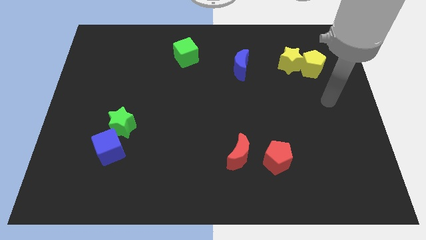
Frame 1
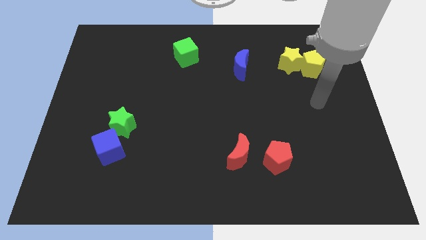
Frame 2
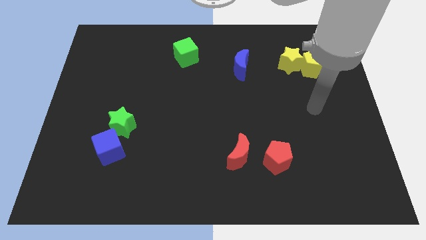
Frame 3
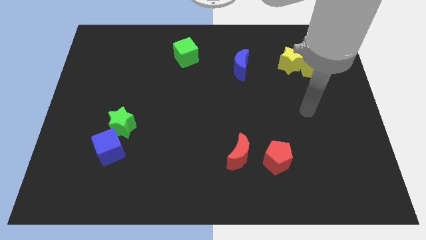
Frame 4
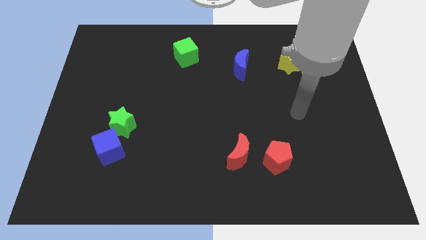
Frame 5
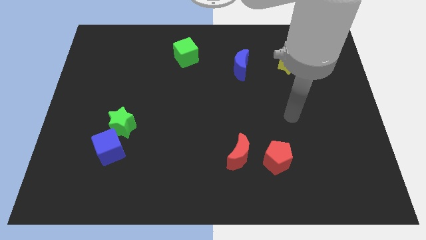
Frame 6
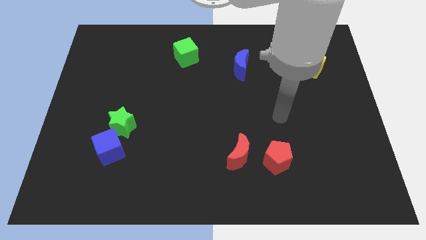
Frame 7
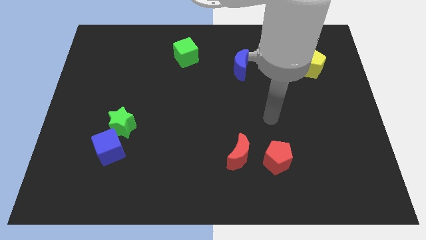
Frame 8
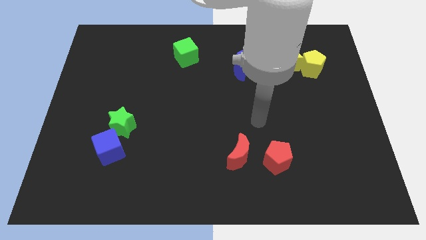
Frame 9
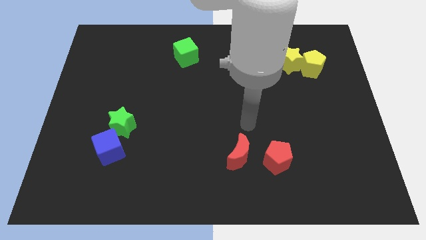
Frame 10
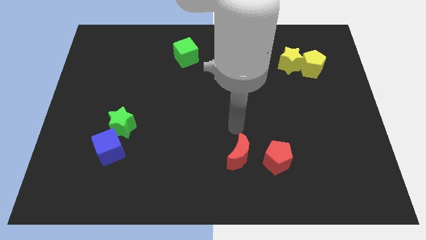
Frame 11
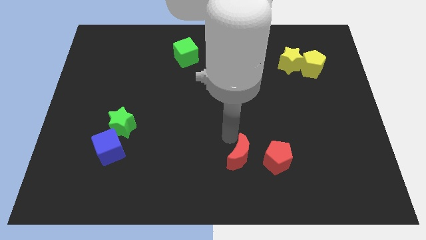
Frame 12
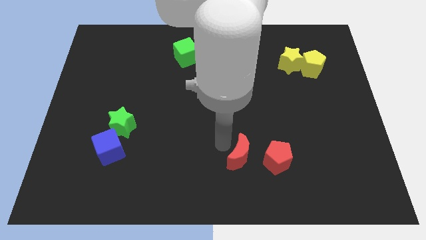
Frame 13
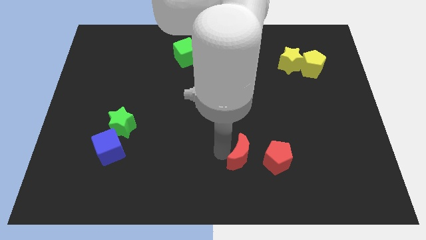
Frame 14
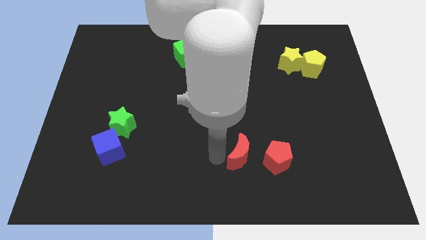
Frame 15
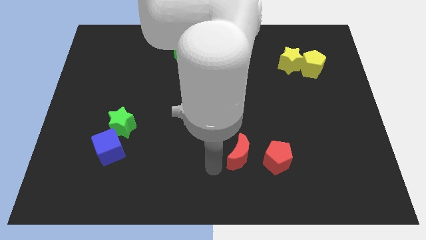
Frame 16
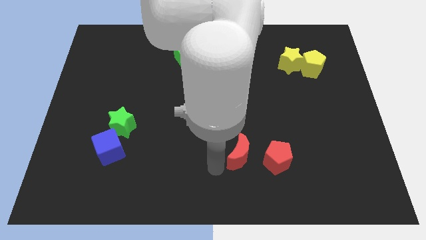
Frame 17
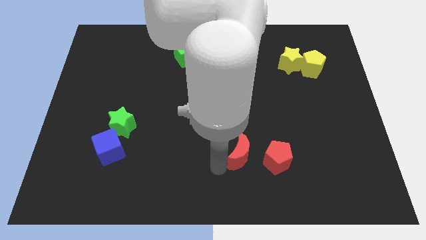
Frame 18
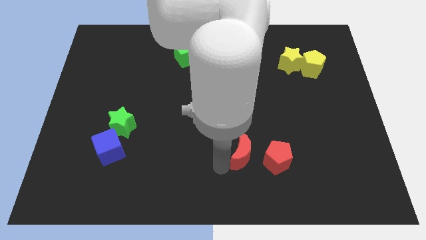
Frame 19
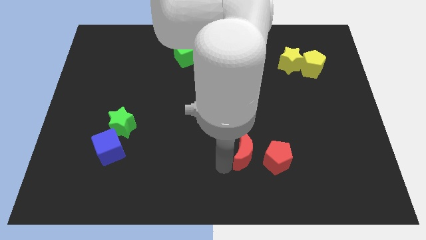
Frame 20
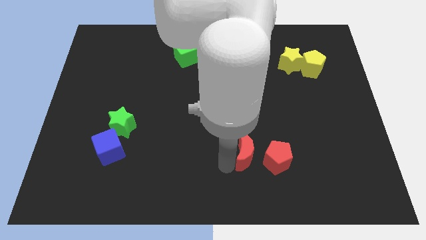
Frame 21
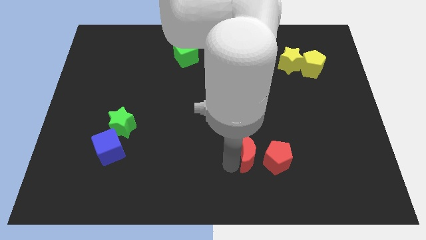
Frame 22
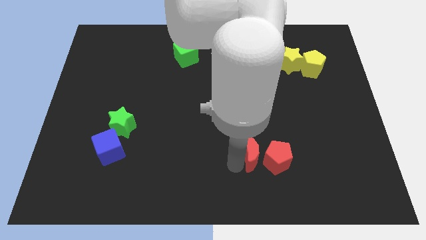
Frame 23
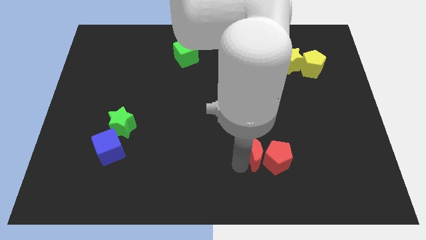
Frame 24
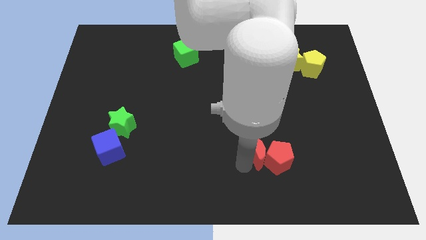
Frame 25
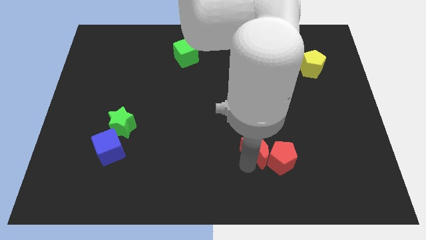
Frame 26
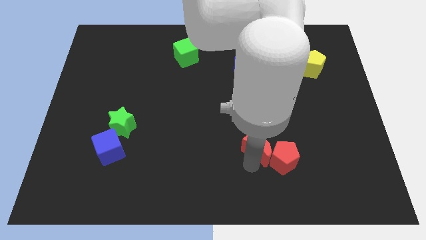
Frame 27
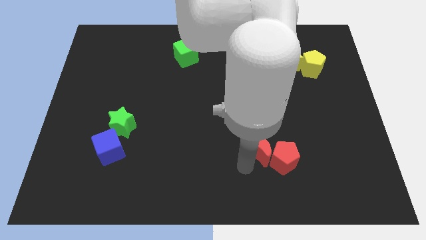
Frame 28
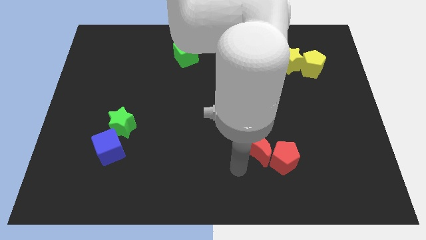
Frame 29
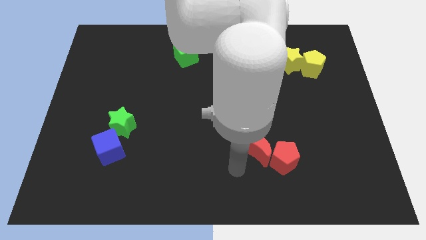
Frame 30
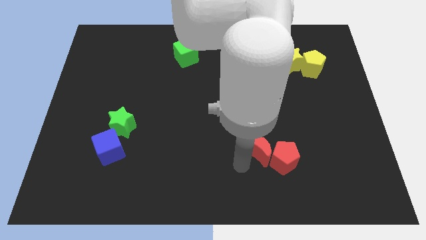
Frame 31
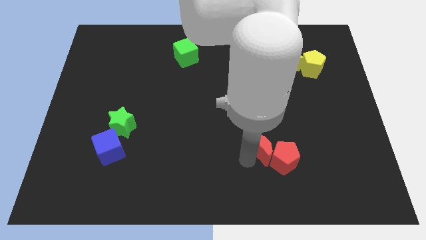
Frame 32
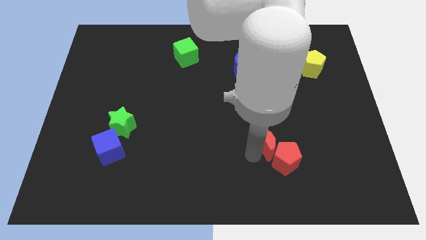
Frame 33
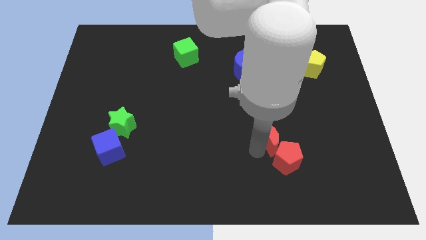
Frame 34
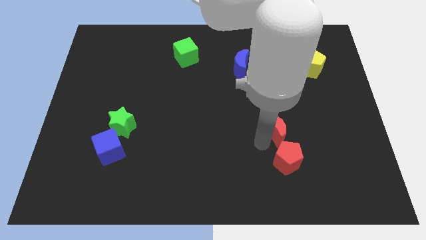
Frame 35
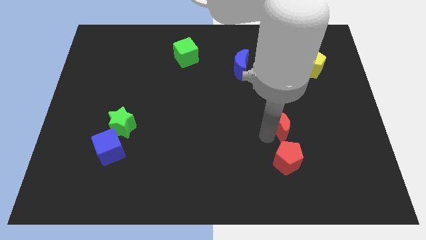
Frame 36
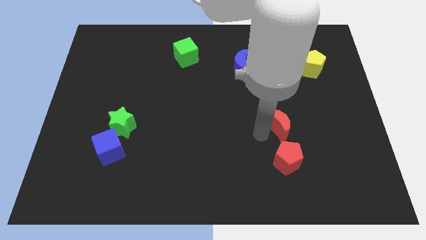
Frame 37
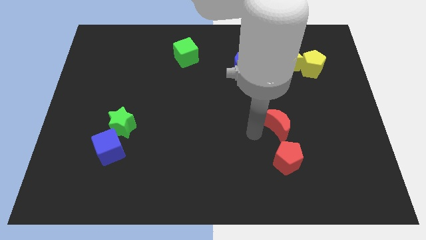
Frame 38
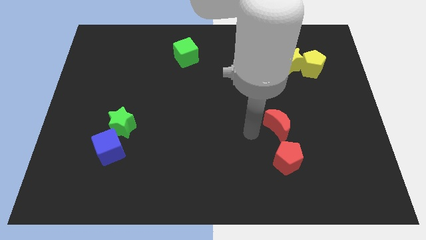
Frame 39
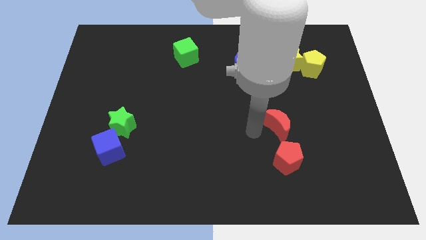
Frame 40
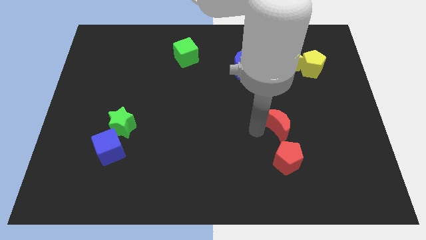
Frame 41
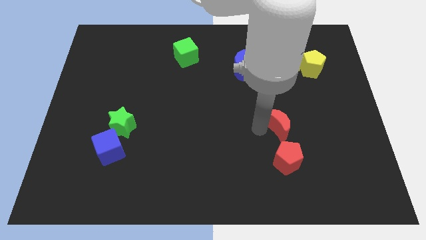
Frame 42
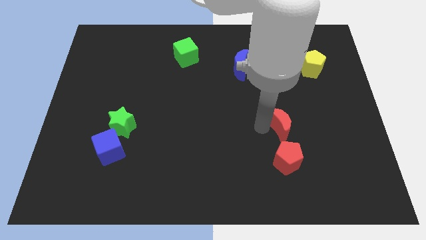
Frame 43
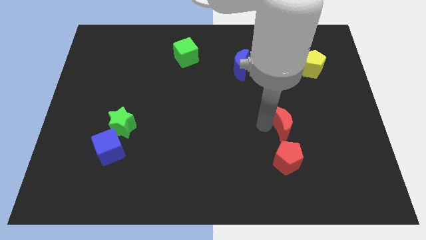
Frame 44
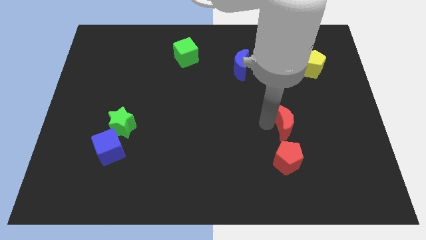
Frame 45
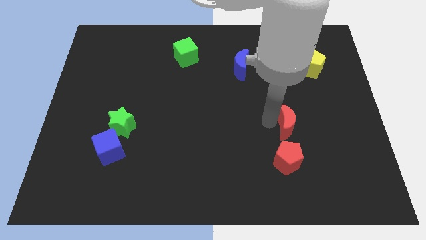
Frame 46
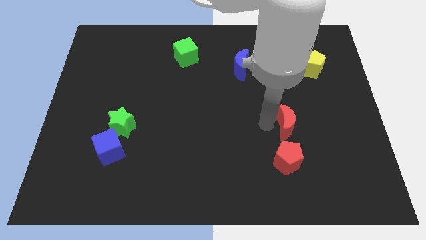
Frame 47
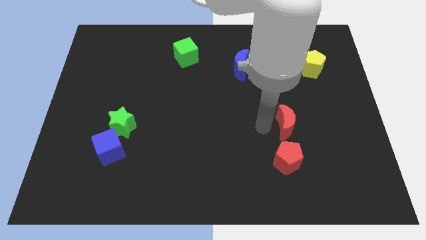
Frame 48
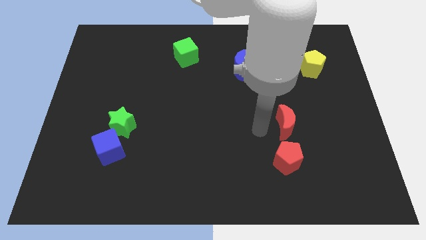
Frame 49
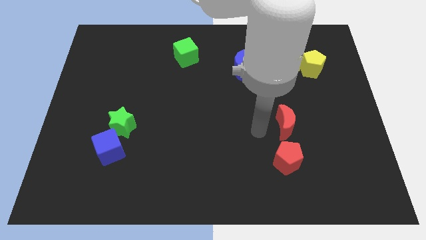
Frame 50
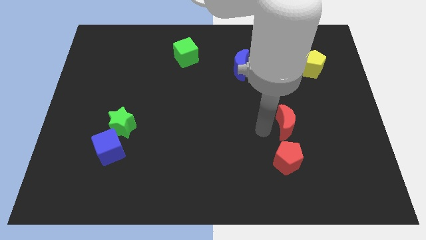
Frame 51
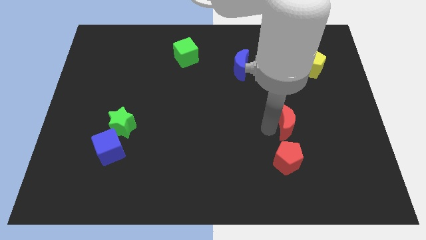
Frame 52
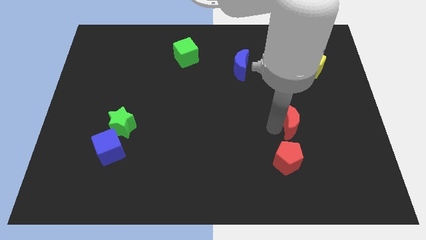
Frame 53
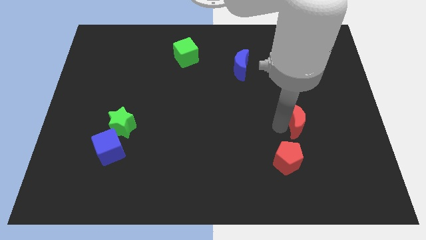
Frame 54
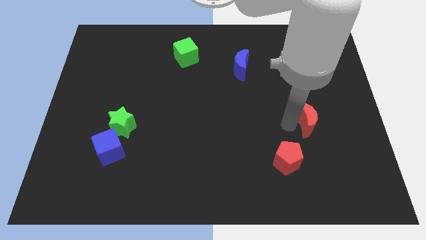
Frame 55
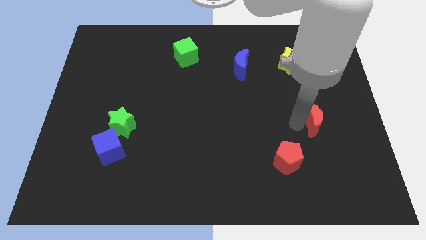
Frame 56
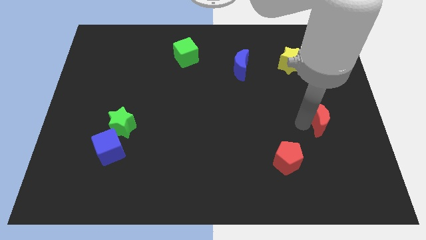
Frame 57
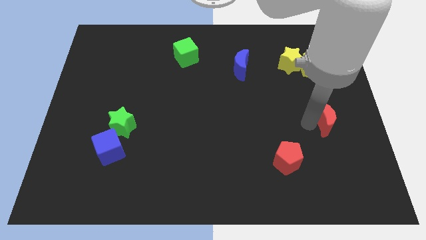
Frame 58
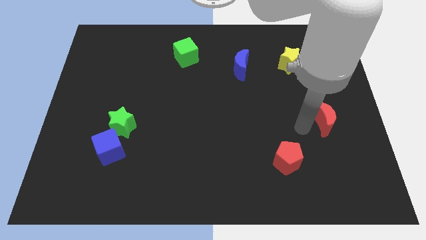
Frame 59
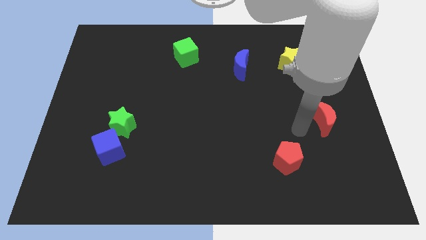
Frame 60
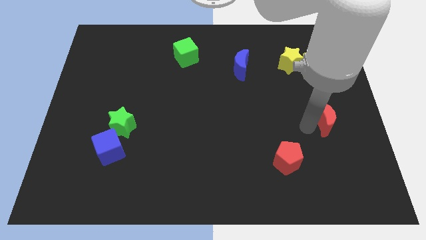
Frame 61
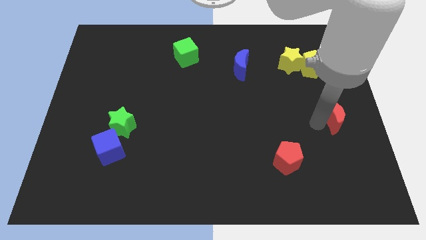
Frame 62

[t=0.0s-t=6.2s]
put the red moon to the right side
